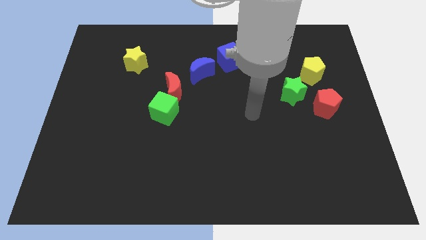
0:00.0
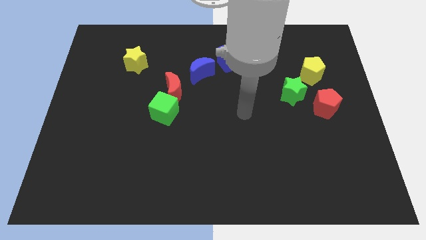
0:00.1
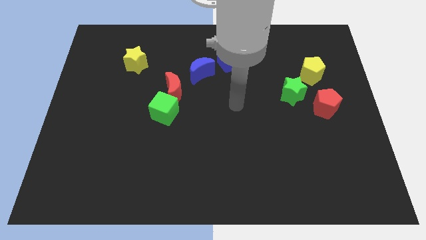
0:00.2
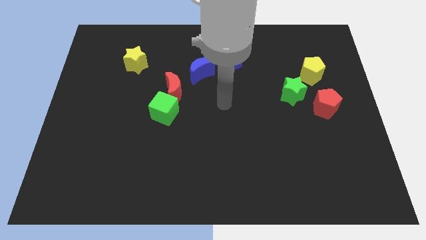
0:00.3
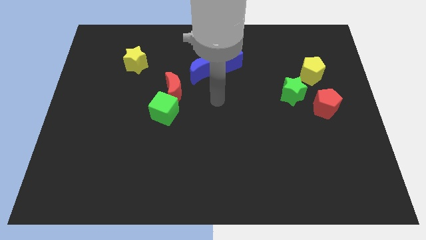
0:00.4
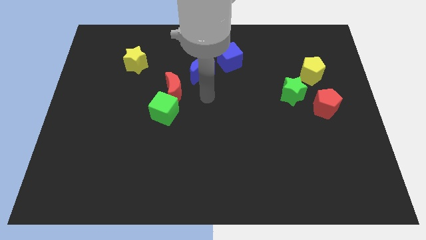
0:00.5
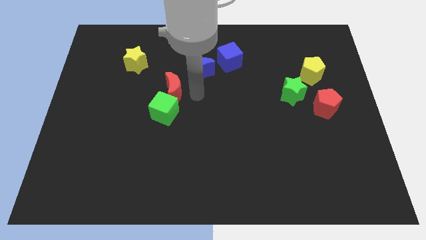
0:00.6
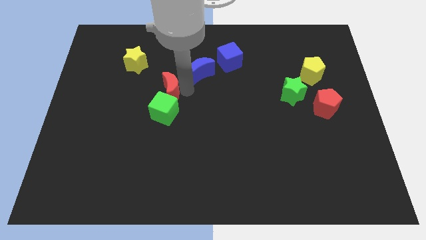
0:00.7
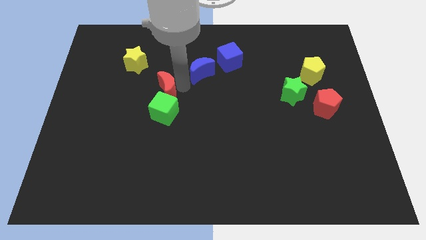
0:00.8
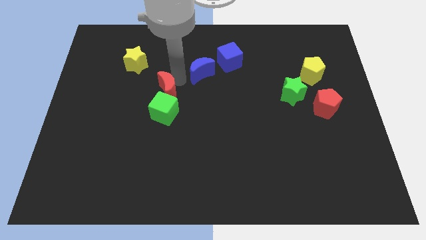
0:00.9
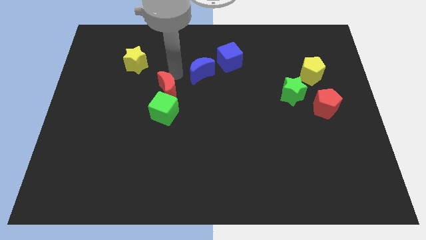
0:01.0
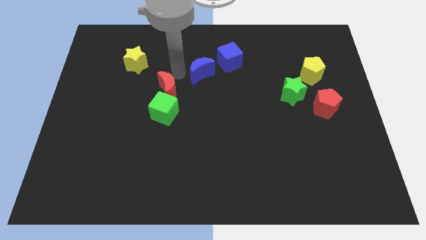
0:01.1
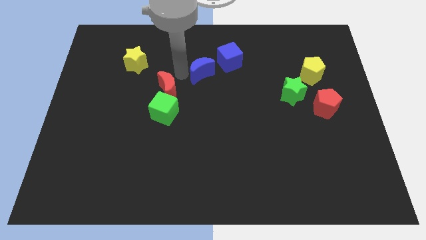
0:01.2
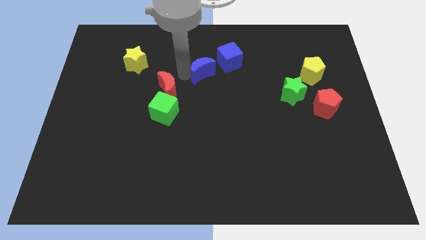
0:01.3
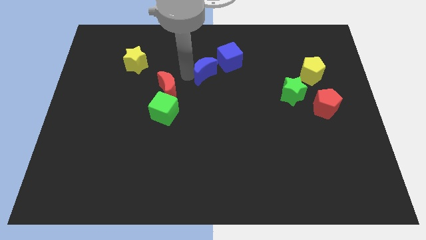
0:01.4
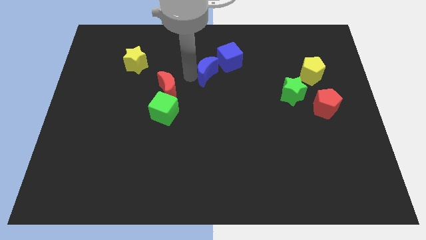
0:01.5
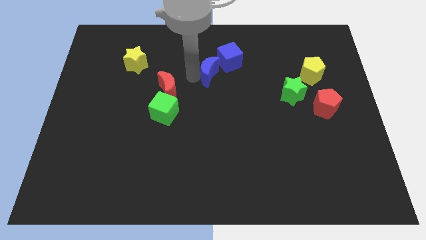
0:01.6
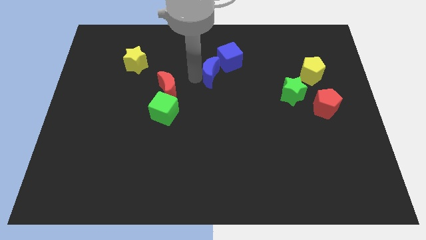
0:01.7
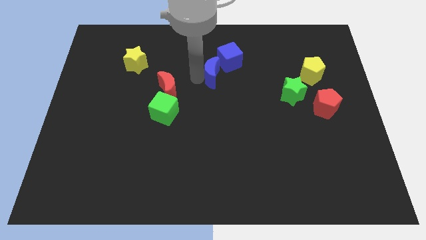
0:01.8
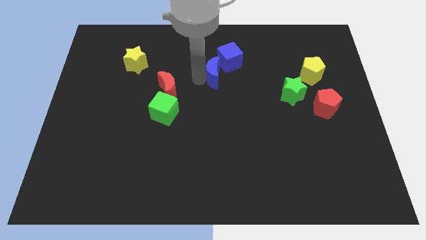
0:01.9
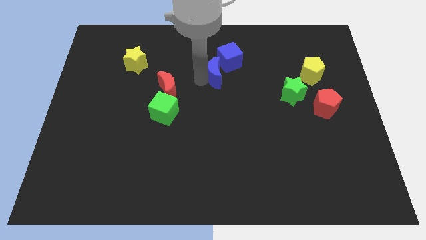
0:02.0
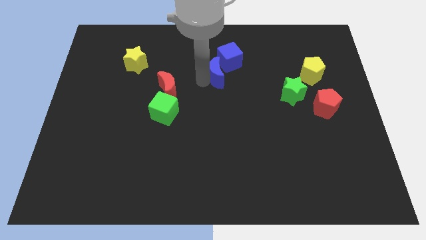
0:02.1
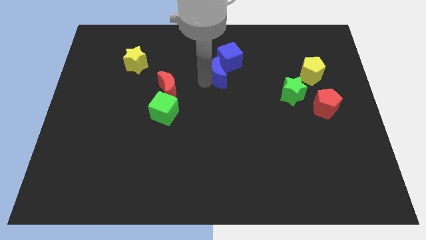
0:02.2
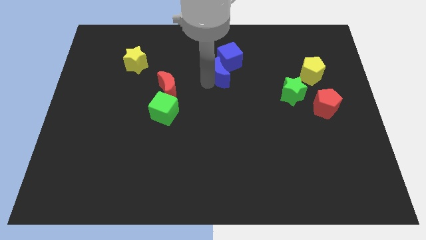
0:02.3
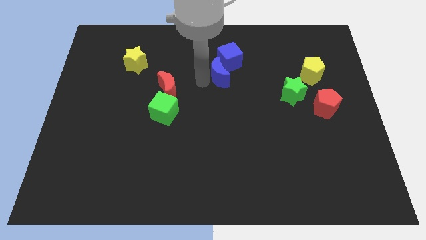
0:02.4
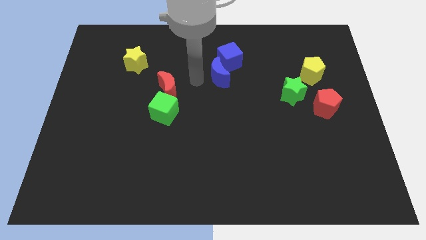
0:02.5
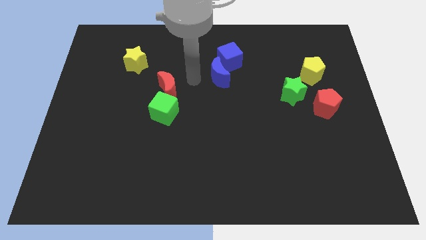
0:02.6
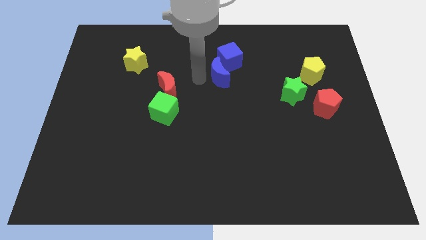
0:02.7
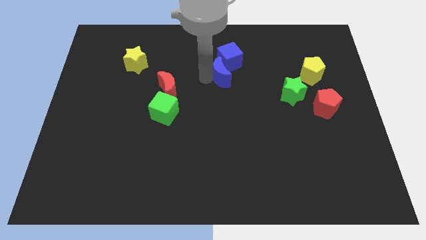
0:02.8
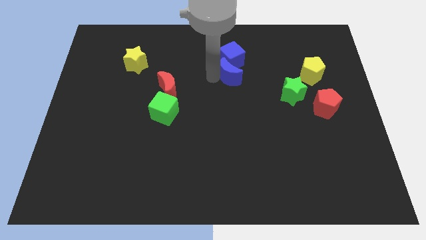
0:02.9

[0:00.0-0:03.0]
push the blue moon somewhat right

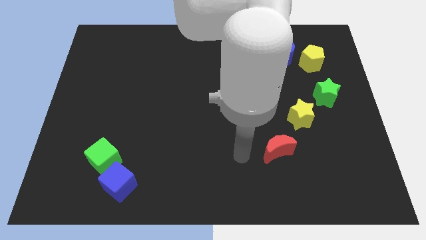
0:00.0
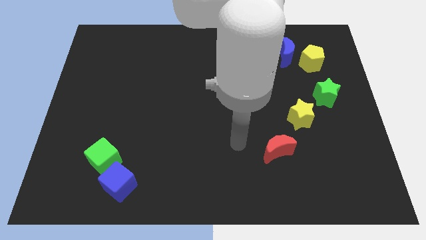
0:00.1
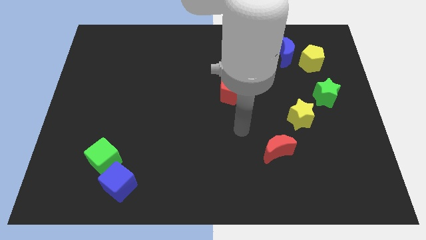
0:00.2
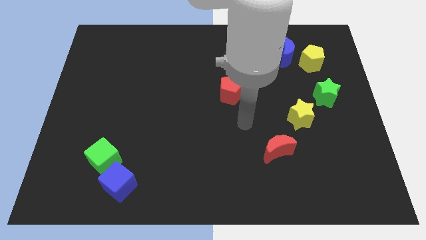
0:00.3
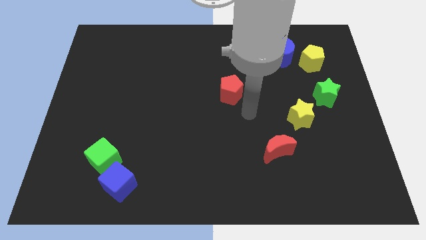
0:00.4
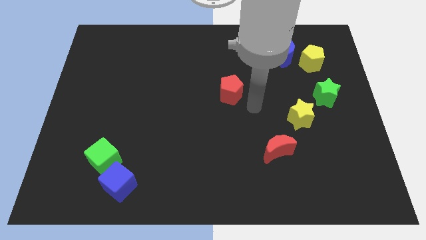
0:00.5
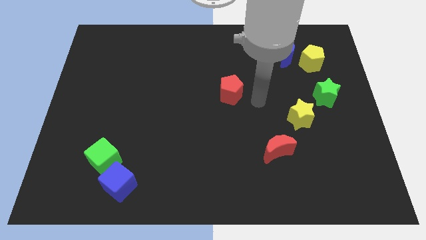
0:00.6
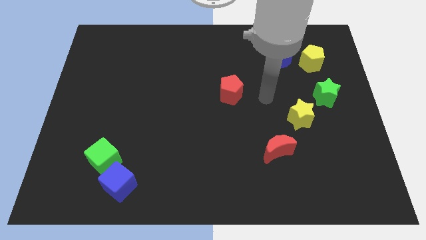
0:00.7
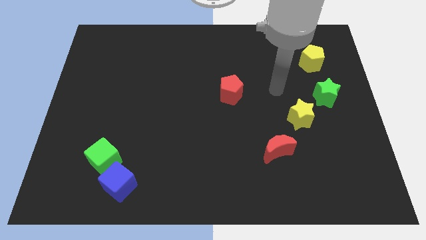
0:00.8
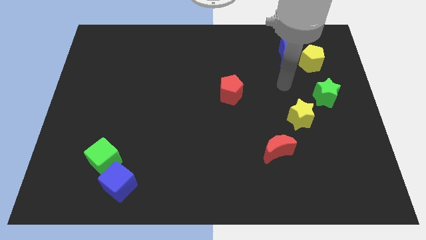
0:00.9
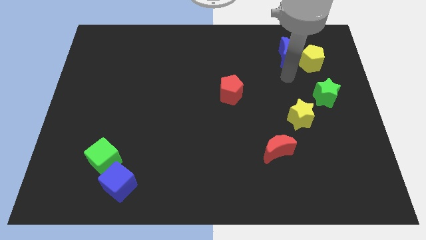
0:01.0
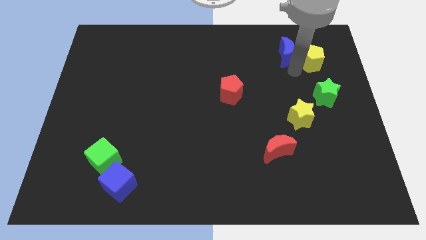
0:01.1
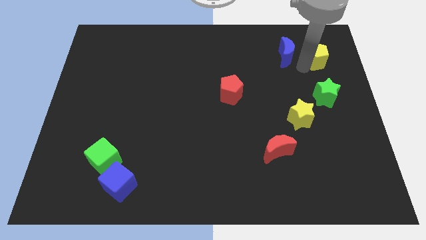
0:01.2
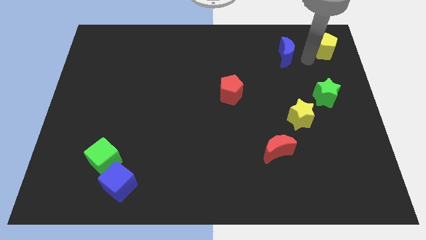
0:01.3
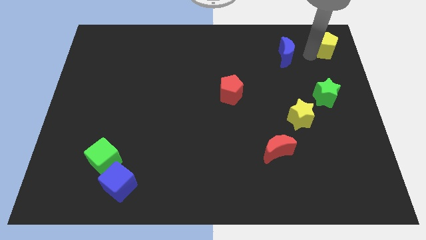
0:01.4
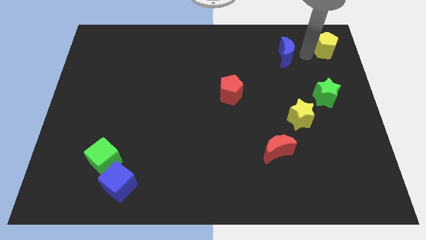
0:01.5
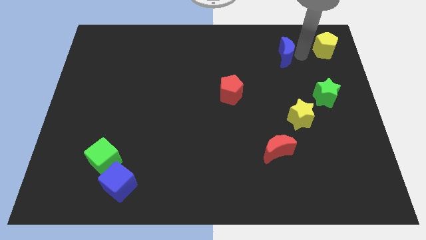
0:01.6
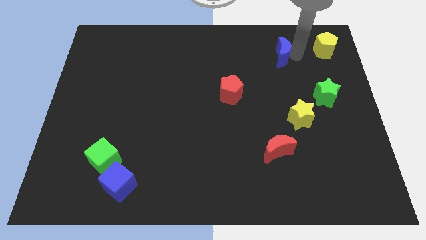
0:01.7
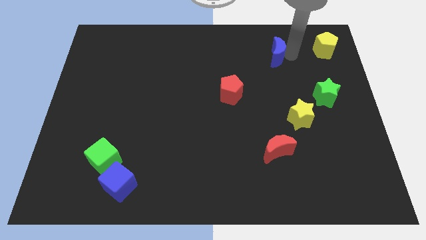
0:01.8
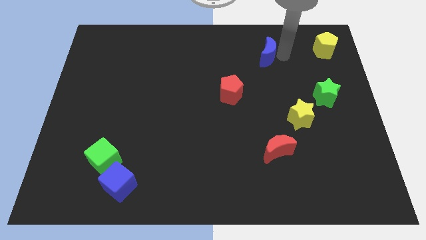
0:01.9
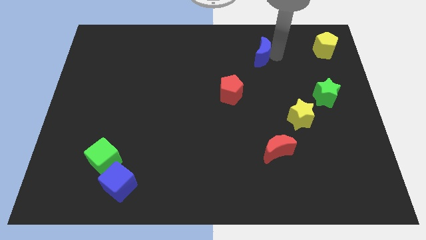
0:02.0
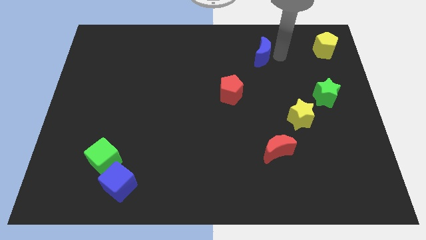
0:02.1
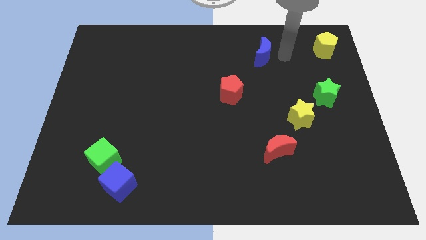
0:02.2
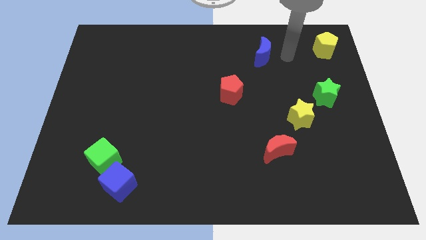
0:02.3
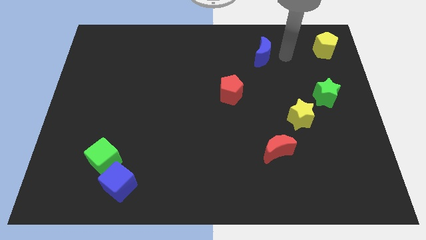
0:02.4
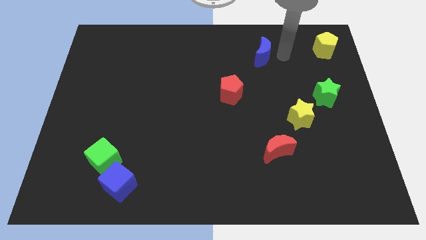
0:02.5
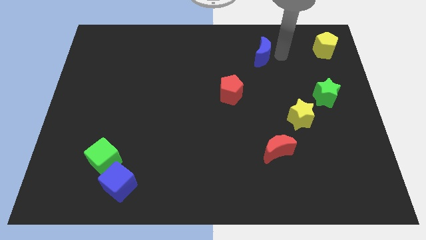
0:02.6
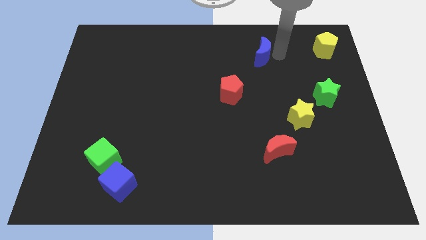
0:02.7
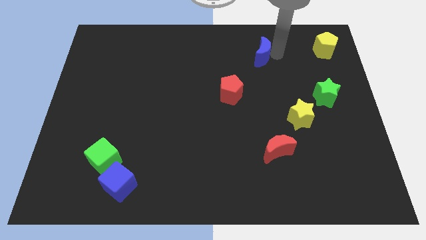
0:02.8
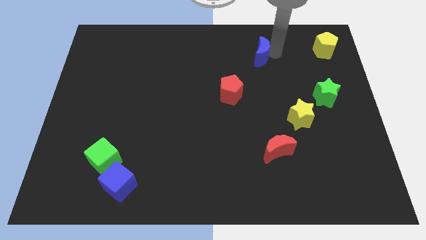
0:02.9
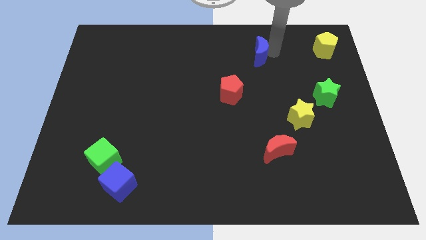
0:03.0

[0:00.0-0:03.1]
push the blue moon left a bit

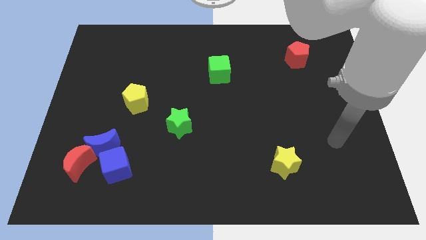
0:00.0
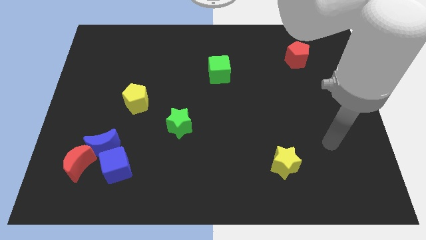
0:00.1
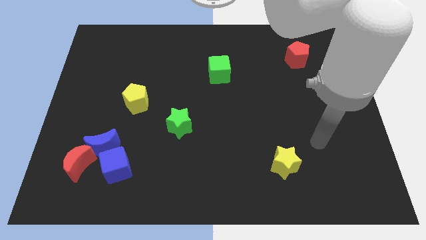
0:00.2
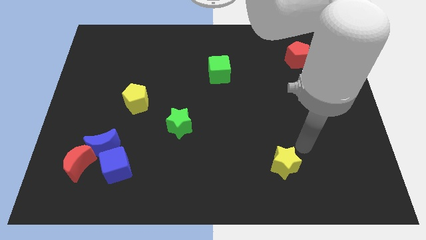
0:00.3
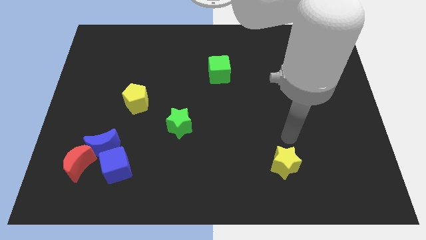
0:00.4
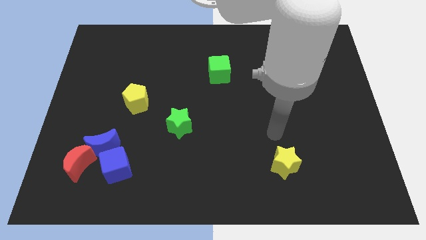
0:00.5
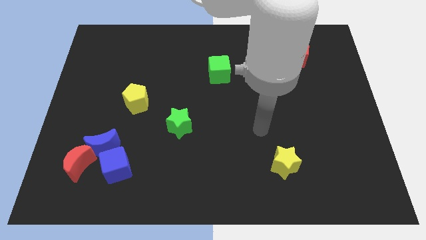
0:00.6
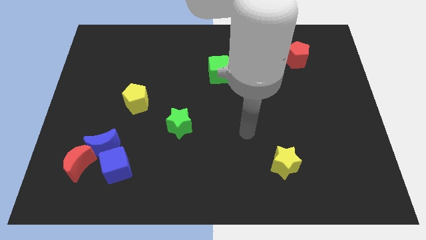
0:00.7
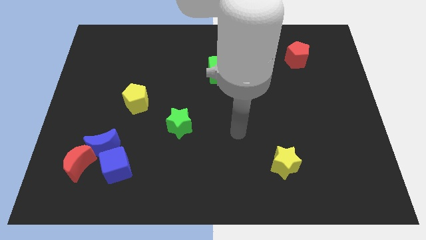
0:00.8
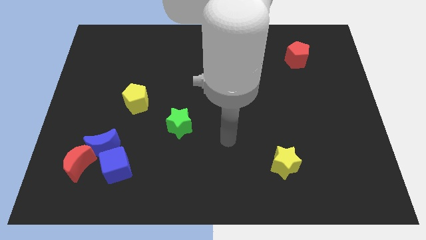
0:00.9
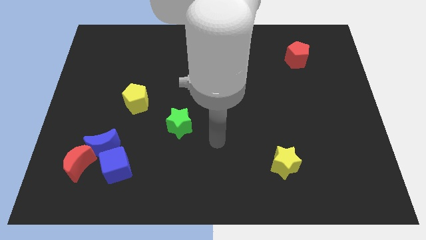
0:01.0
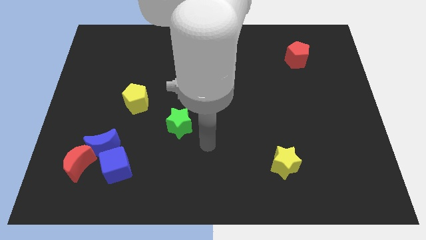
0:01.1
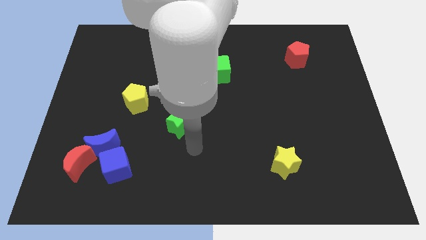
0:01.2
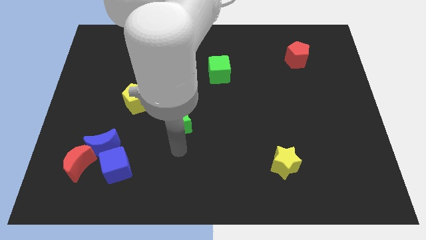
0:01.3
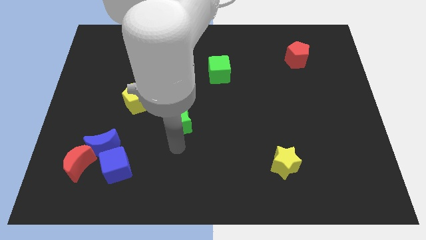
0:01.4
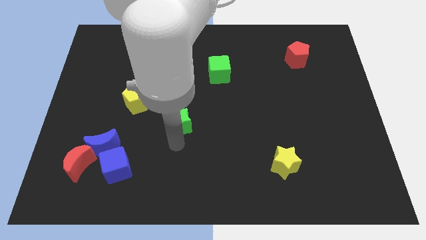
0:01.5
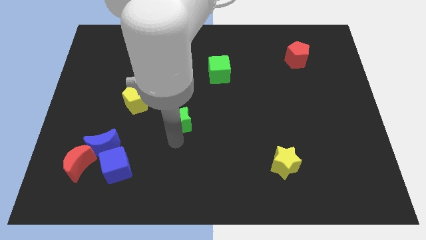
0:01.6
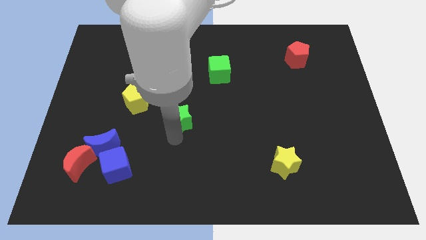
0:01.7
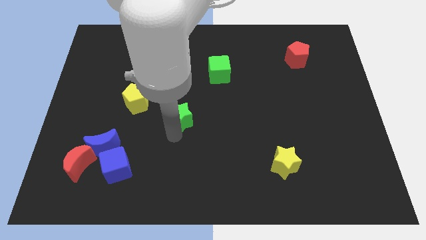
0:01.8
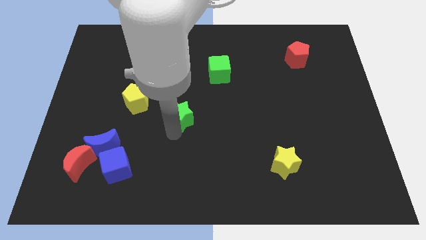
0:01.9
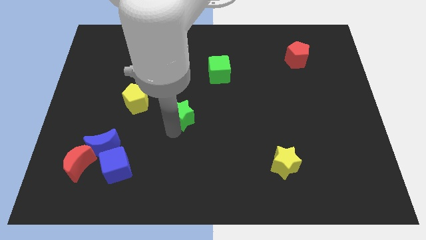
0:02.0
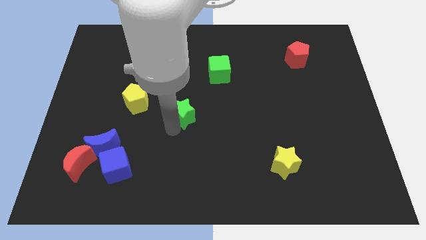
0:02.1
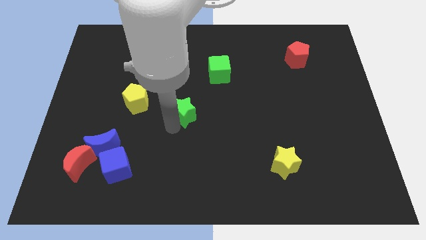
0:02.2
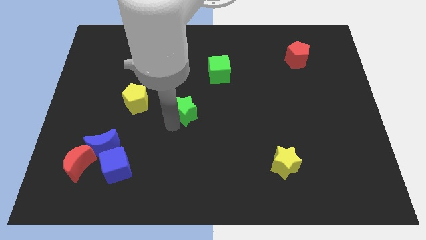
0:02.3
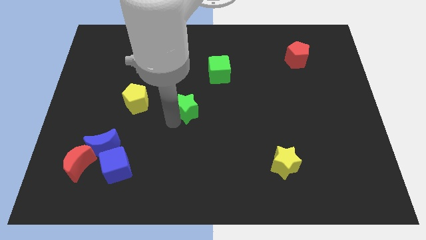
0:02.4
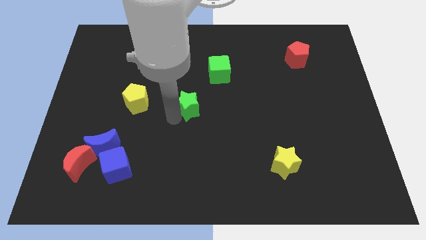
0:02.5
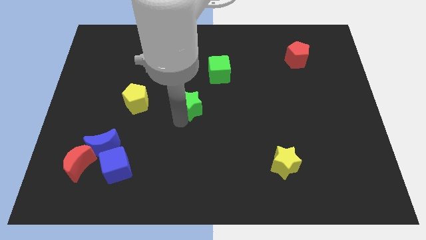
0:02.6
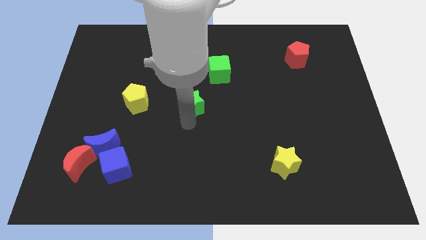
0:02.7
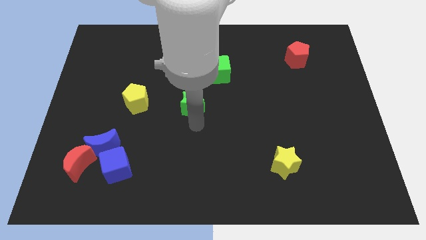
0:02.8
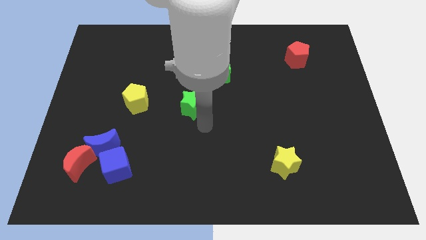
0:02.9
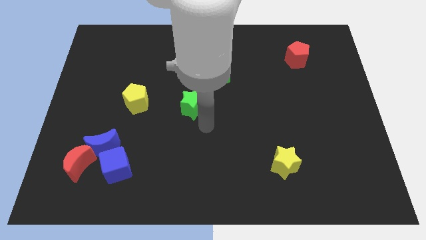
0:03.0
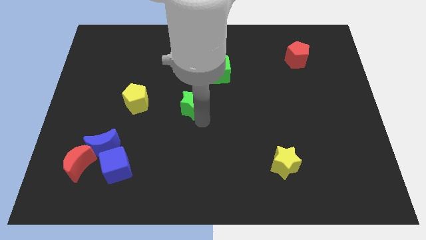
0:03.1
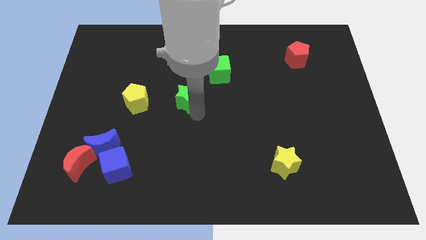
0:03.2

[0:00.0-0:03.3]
slide the green star up slightly
